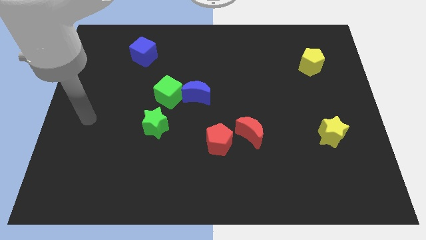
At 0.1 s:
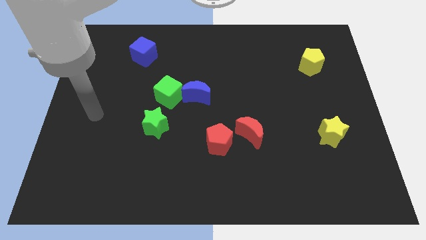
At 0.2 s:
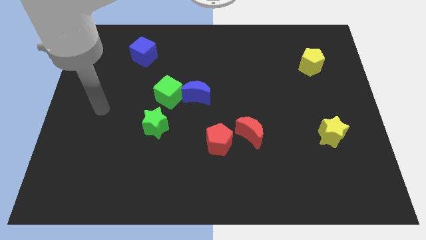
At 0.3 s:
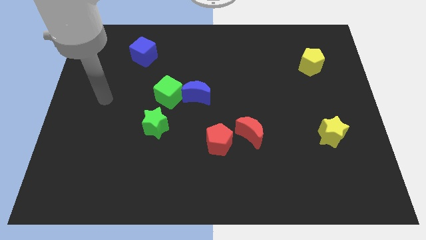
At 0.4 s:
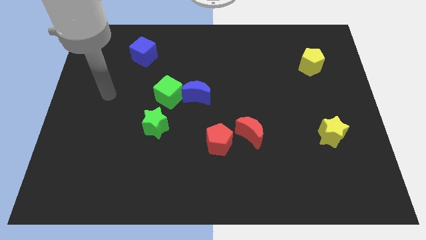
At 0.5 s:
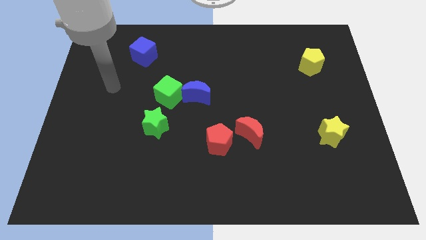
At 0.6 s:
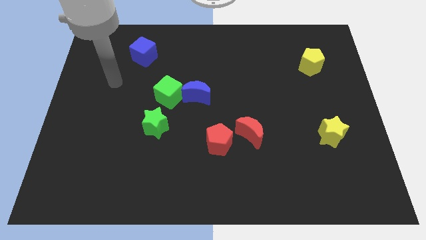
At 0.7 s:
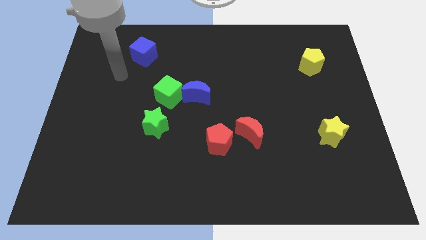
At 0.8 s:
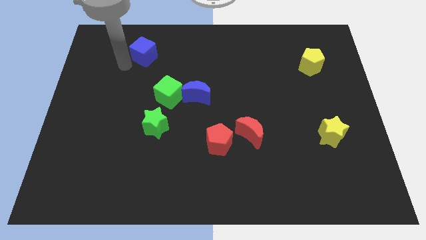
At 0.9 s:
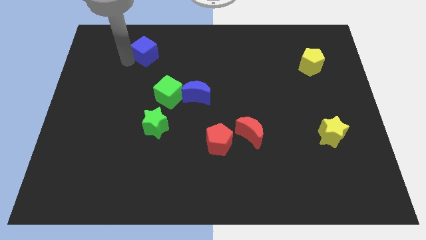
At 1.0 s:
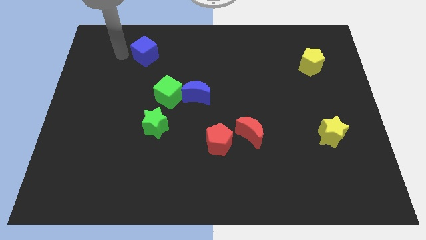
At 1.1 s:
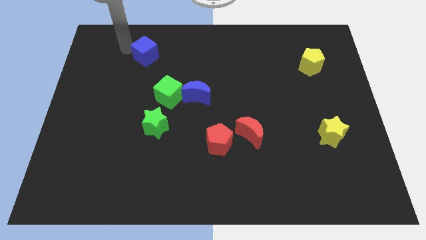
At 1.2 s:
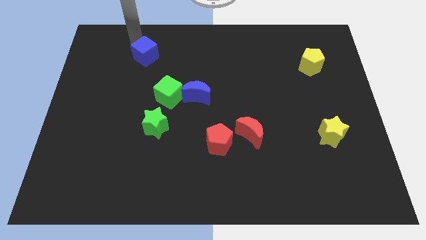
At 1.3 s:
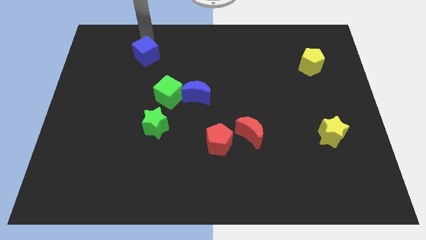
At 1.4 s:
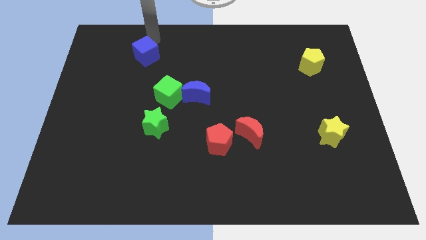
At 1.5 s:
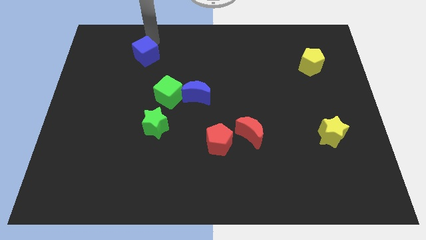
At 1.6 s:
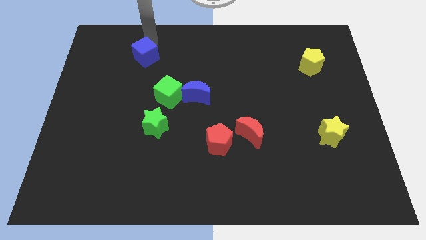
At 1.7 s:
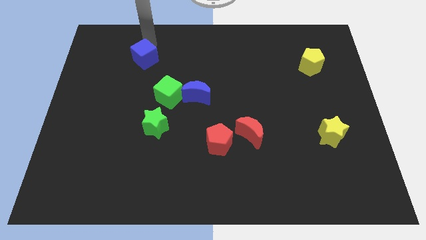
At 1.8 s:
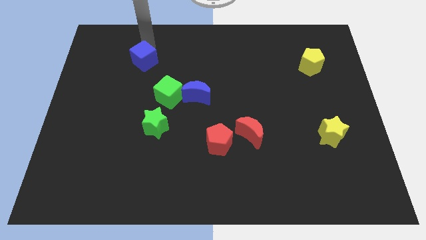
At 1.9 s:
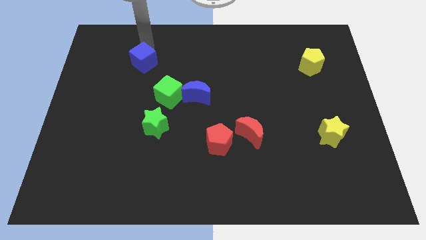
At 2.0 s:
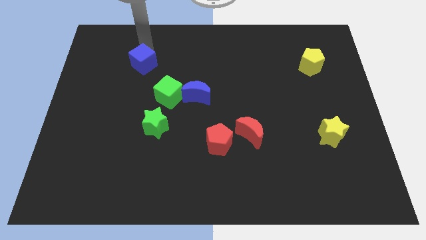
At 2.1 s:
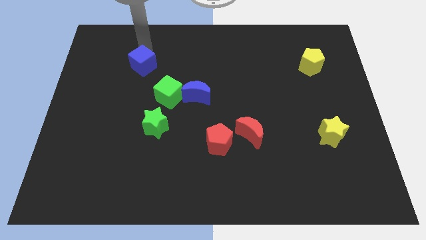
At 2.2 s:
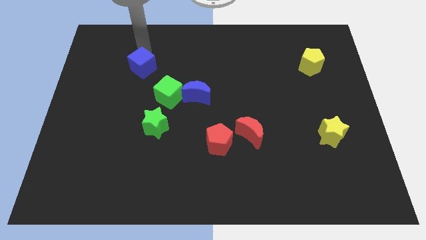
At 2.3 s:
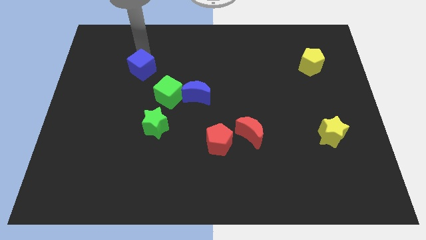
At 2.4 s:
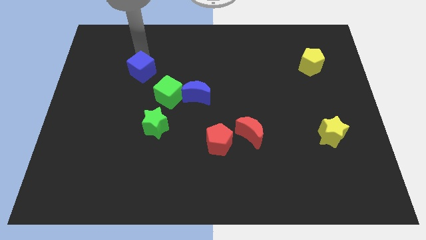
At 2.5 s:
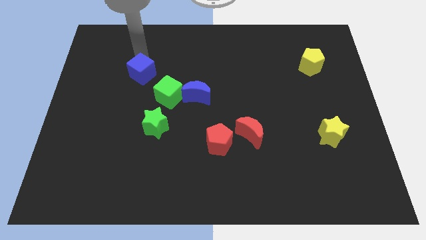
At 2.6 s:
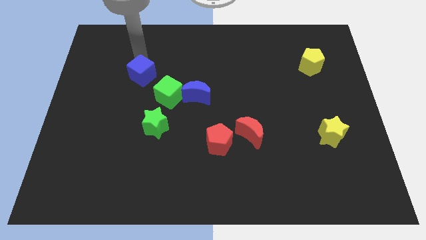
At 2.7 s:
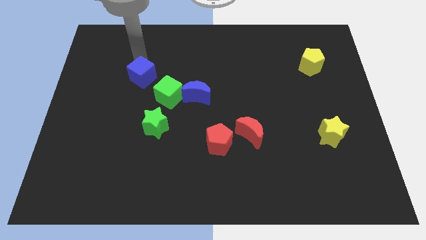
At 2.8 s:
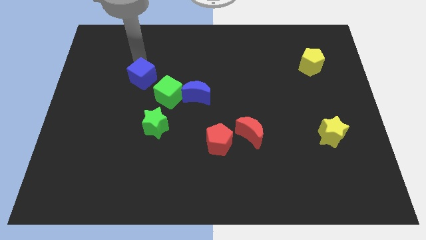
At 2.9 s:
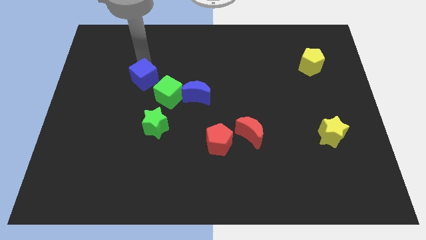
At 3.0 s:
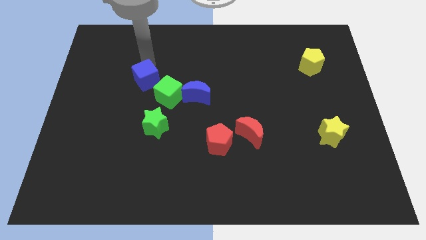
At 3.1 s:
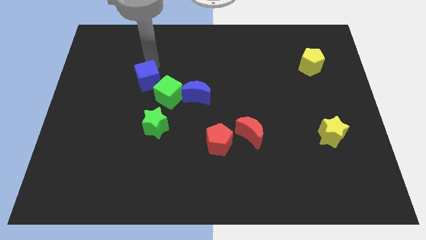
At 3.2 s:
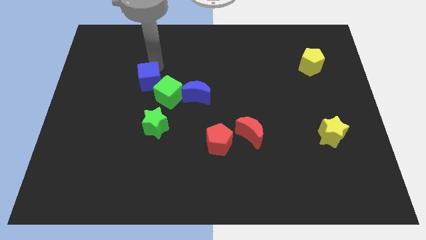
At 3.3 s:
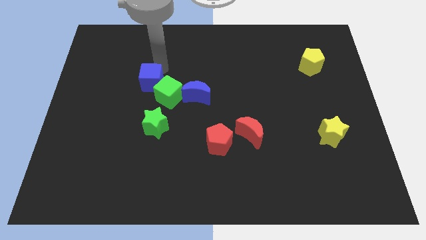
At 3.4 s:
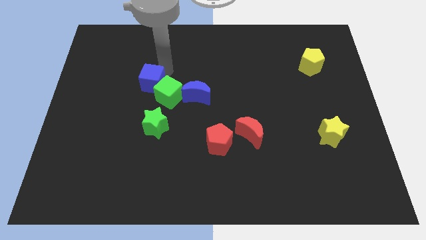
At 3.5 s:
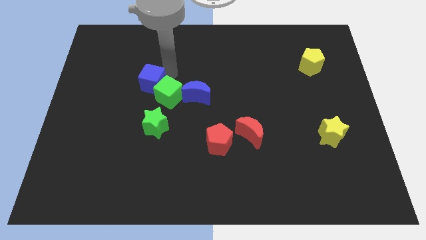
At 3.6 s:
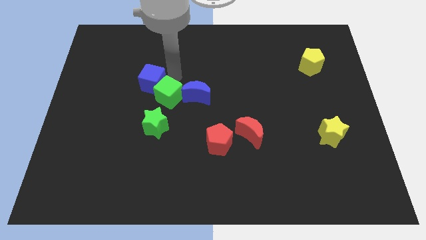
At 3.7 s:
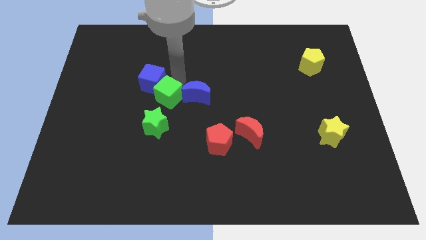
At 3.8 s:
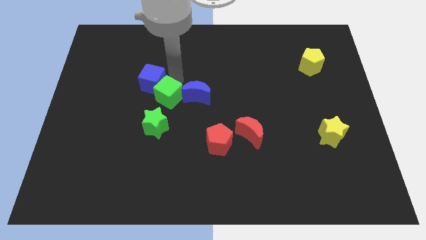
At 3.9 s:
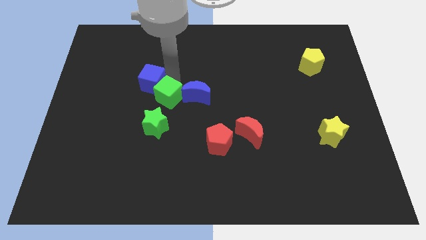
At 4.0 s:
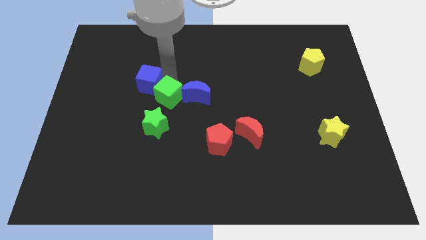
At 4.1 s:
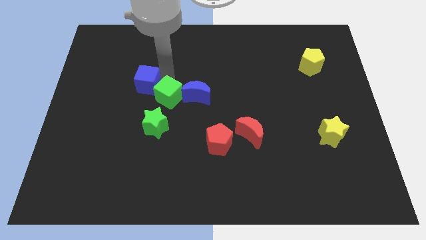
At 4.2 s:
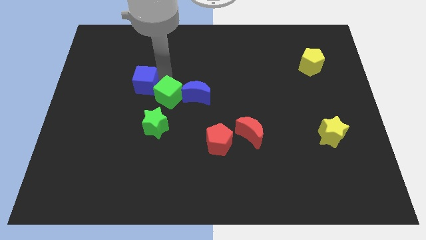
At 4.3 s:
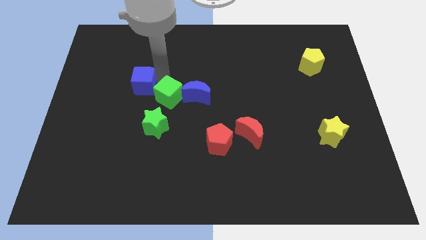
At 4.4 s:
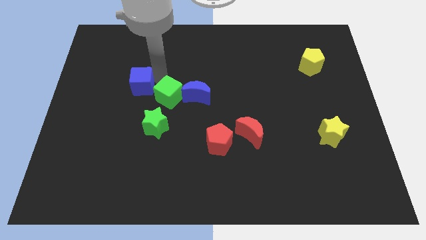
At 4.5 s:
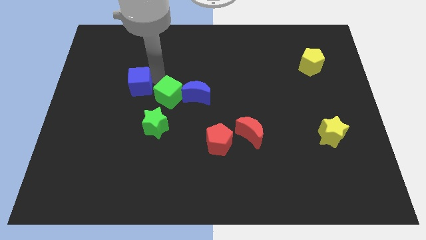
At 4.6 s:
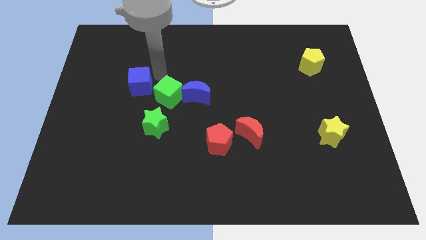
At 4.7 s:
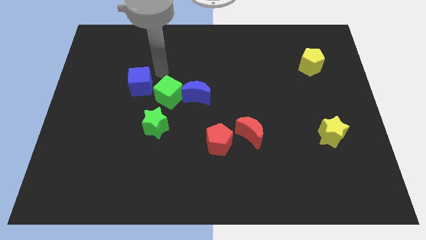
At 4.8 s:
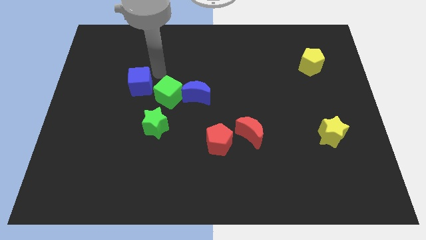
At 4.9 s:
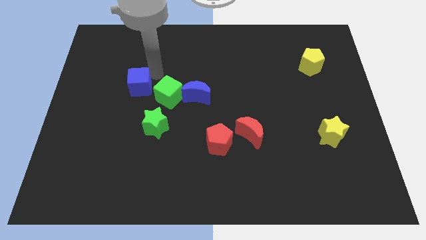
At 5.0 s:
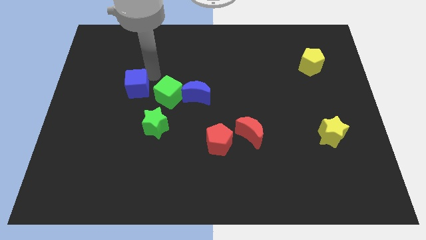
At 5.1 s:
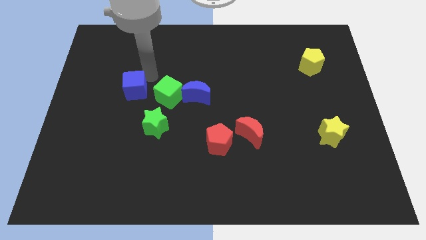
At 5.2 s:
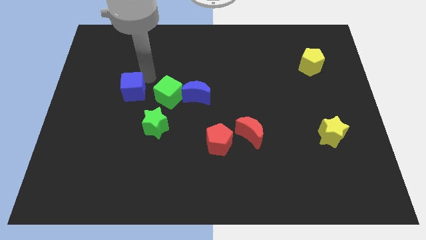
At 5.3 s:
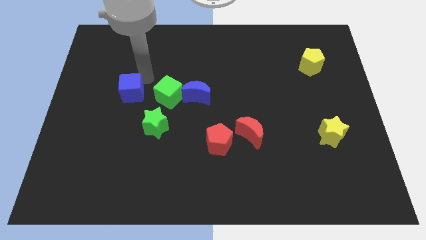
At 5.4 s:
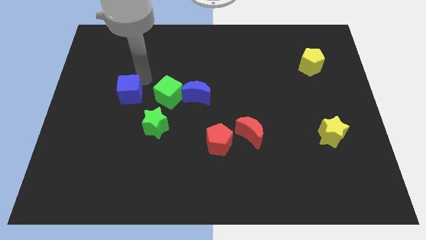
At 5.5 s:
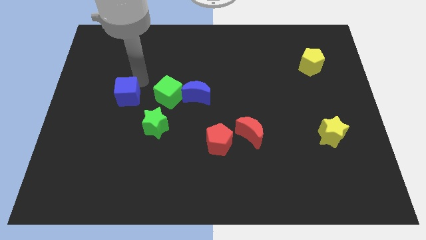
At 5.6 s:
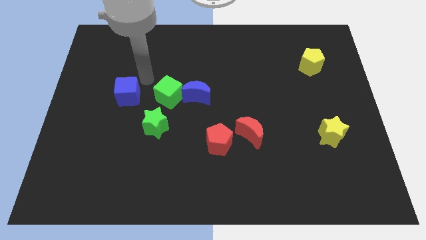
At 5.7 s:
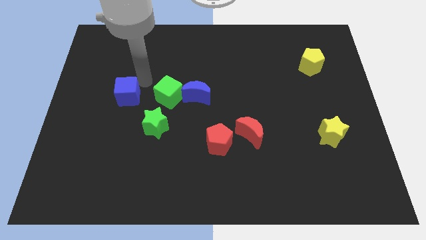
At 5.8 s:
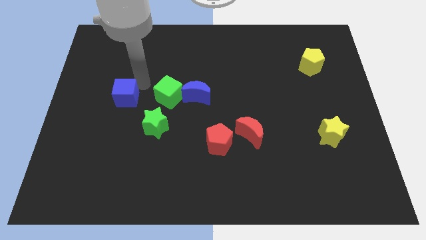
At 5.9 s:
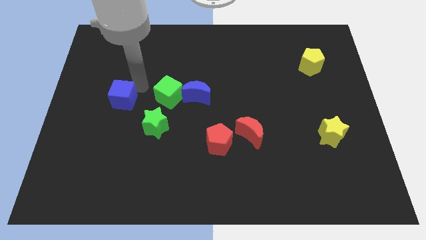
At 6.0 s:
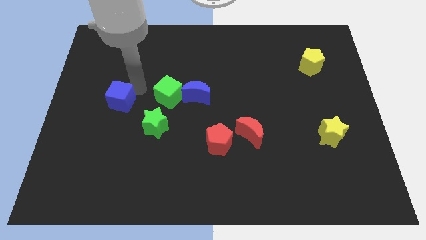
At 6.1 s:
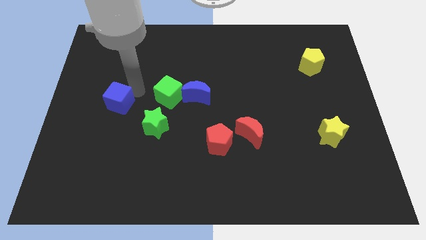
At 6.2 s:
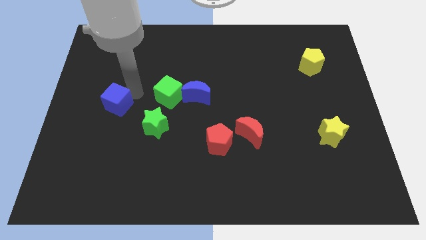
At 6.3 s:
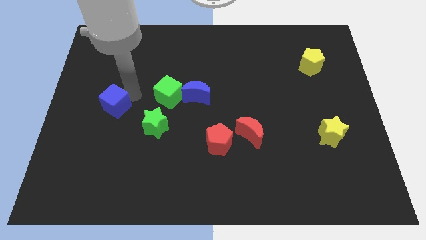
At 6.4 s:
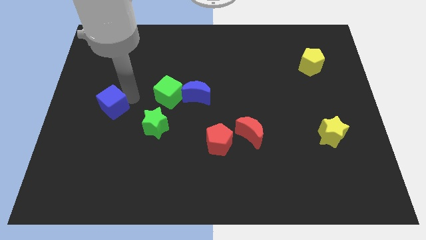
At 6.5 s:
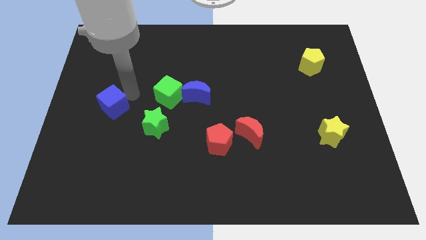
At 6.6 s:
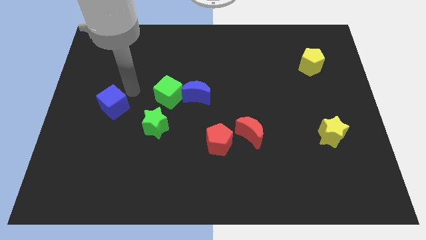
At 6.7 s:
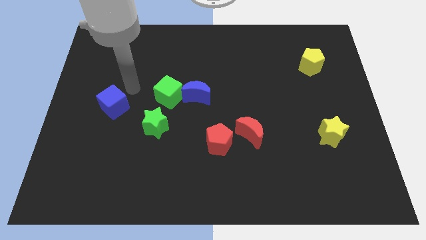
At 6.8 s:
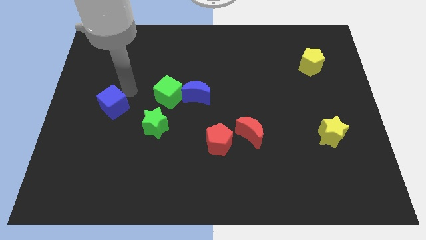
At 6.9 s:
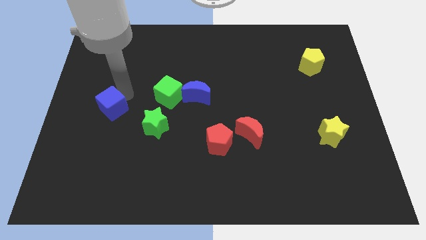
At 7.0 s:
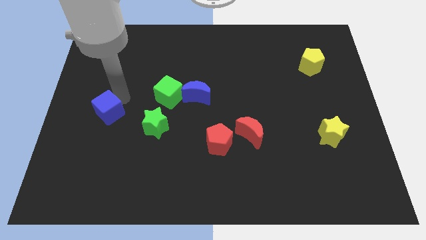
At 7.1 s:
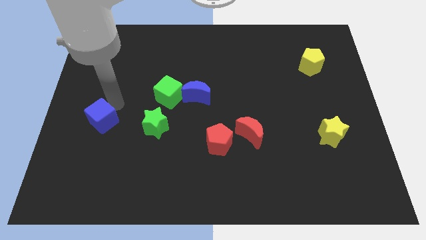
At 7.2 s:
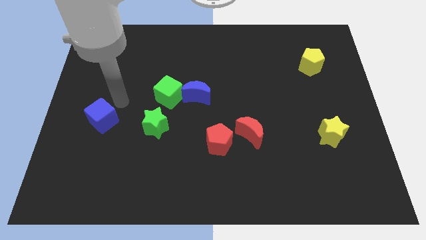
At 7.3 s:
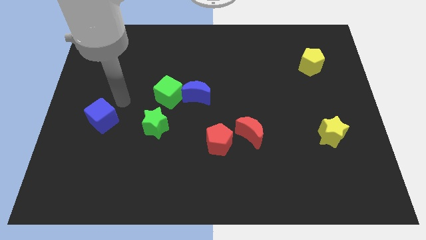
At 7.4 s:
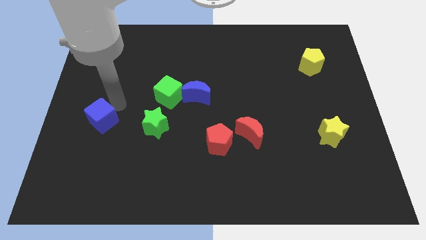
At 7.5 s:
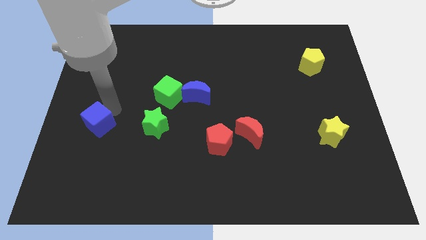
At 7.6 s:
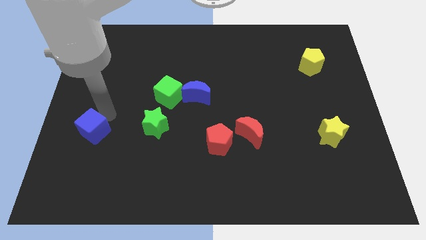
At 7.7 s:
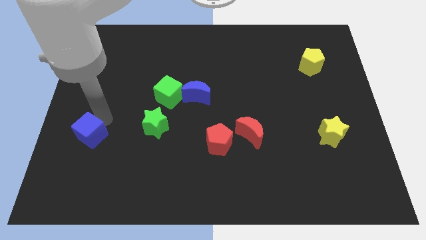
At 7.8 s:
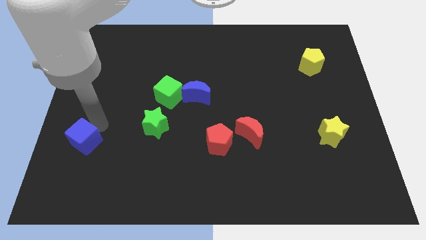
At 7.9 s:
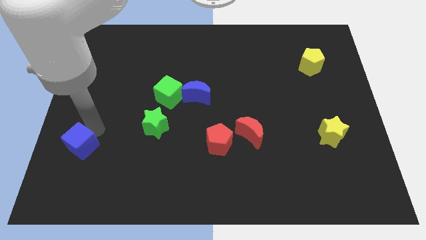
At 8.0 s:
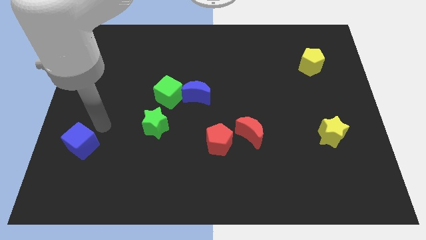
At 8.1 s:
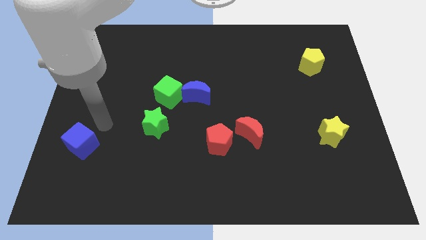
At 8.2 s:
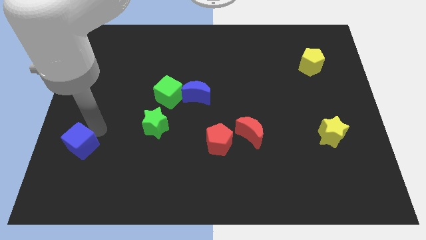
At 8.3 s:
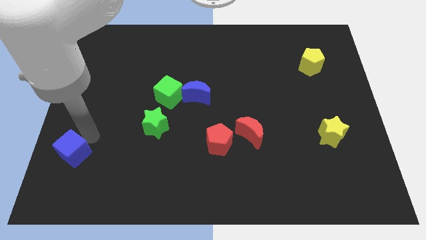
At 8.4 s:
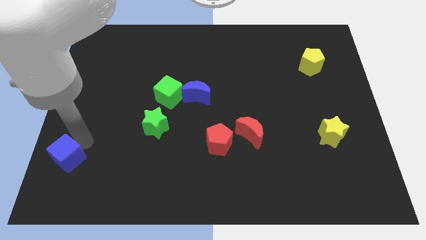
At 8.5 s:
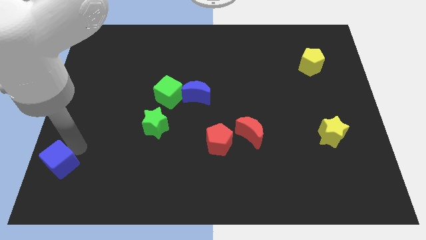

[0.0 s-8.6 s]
push the blue cube to the bottom left
